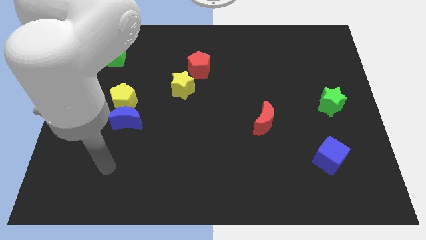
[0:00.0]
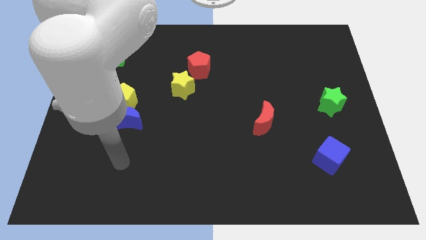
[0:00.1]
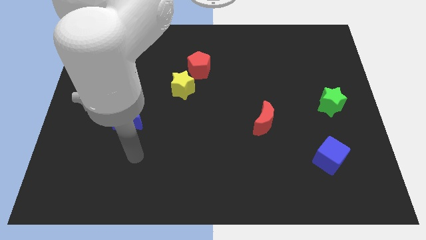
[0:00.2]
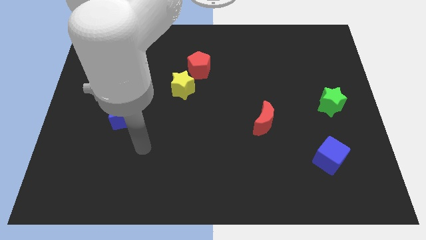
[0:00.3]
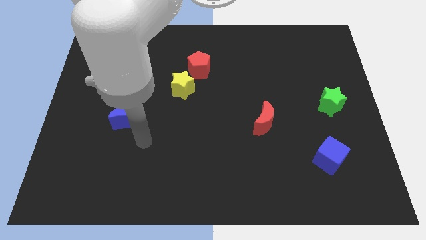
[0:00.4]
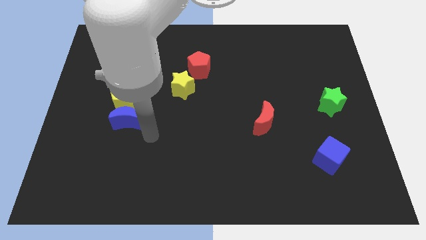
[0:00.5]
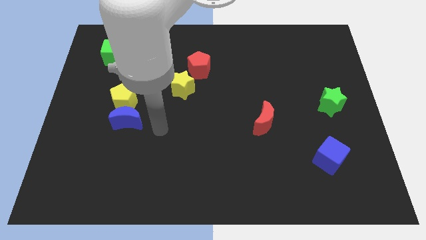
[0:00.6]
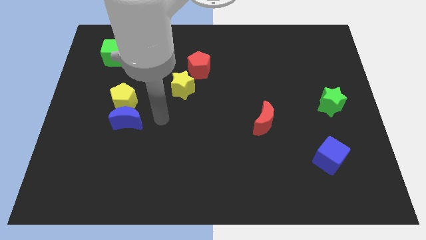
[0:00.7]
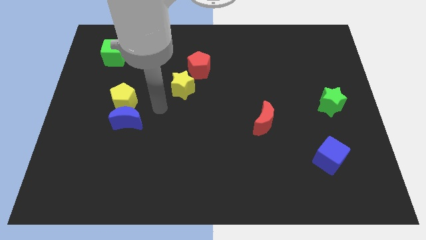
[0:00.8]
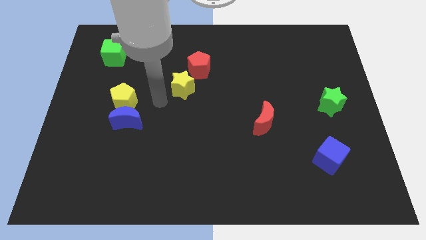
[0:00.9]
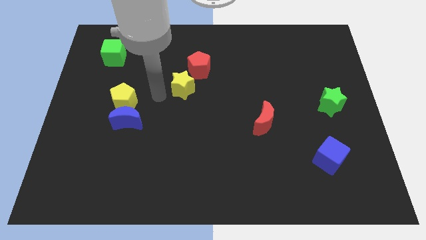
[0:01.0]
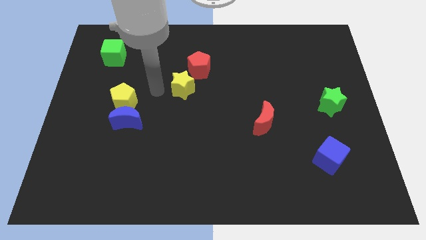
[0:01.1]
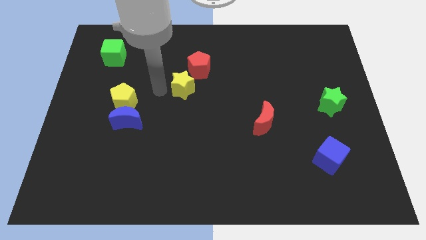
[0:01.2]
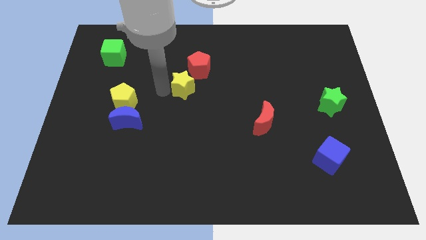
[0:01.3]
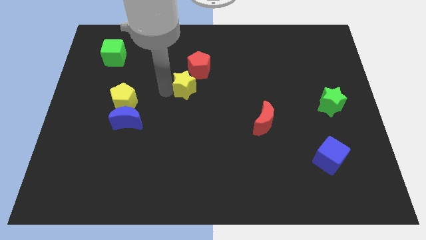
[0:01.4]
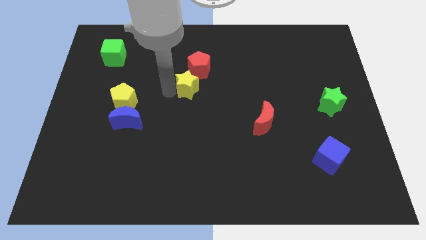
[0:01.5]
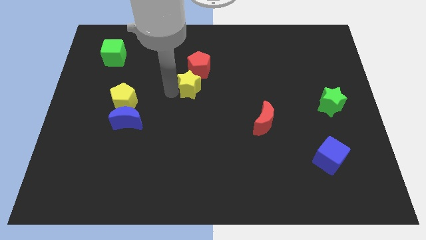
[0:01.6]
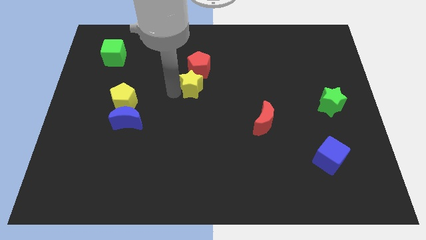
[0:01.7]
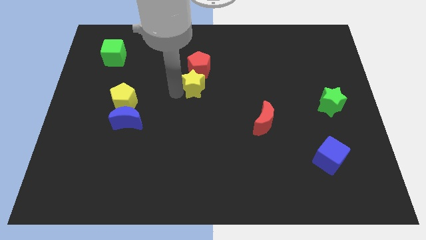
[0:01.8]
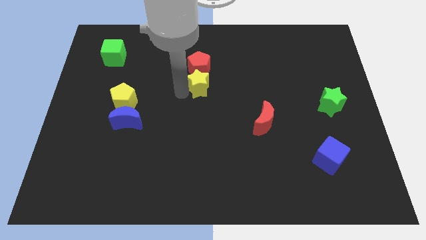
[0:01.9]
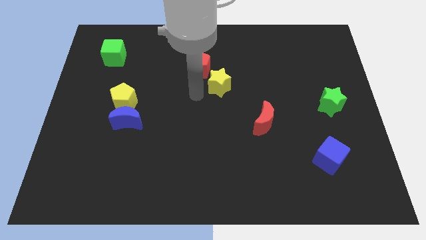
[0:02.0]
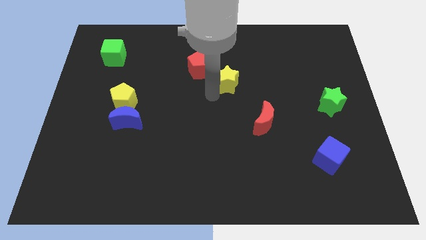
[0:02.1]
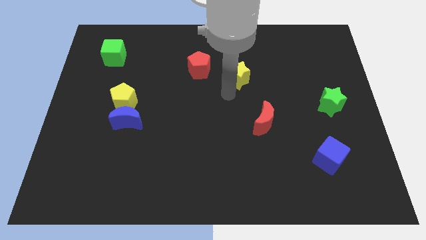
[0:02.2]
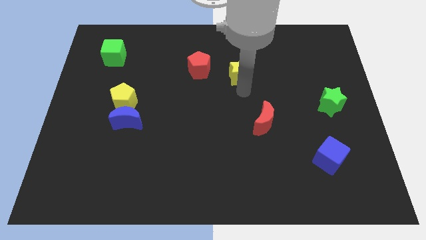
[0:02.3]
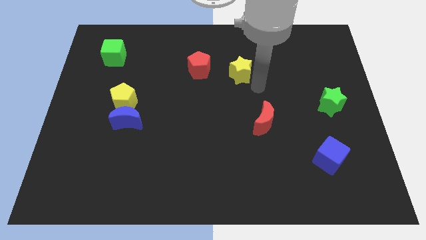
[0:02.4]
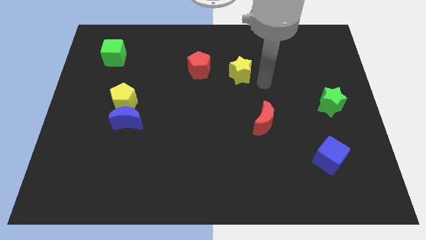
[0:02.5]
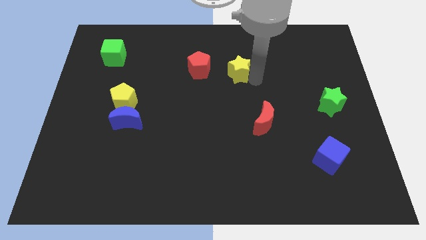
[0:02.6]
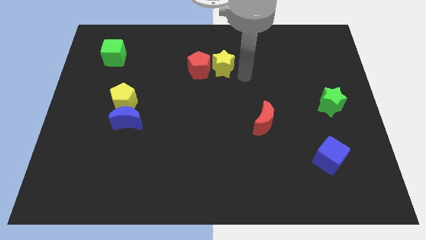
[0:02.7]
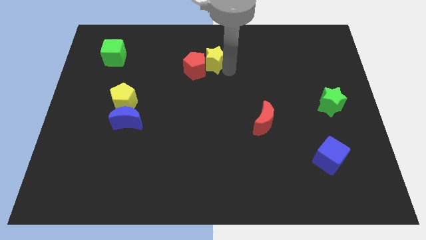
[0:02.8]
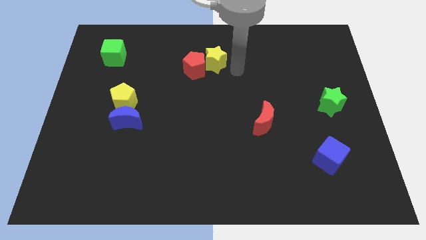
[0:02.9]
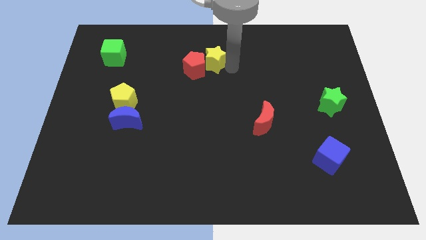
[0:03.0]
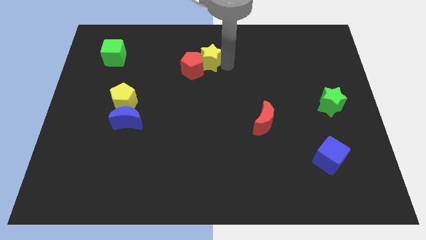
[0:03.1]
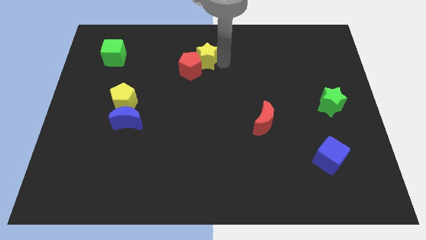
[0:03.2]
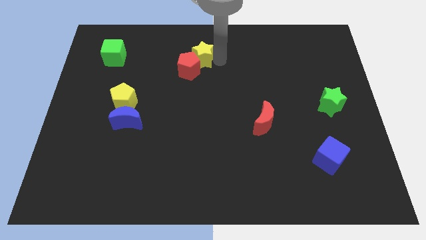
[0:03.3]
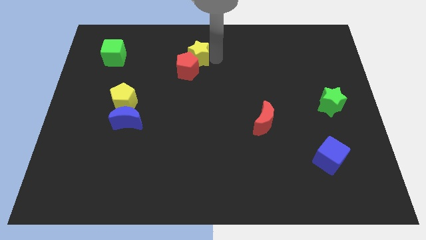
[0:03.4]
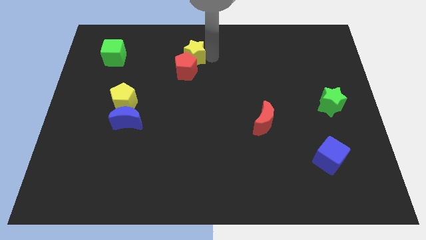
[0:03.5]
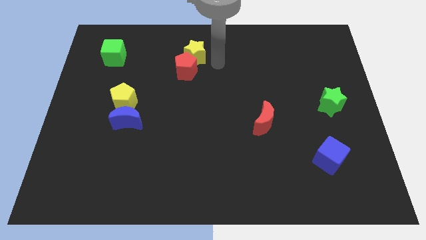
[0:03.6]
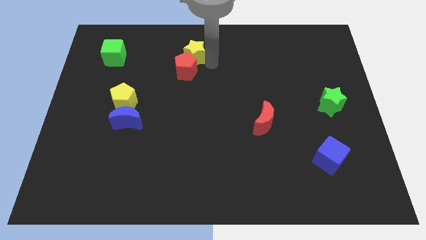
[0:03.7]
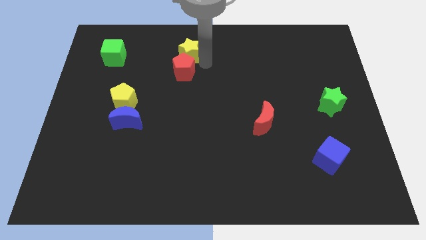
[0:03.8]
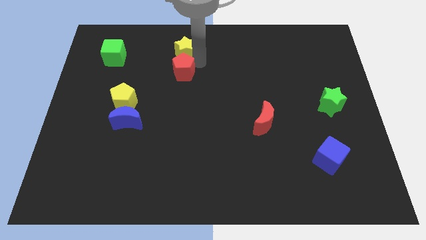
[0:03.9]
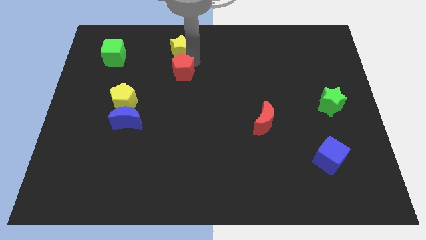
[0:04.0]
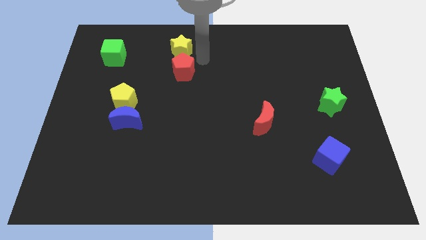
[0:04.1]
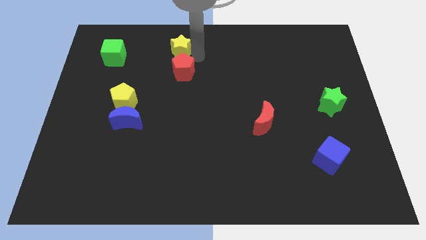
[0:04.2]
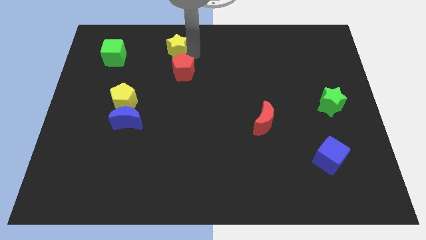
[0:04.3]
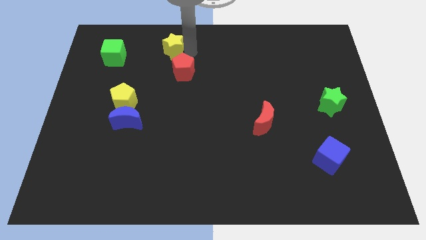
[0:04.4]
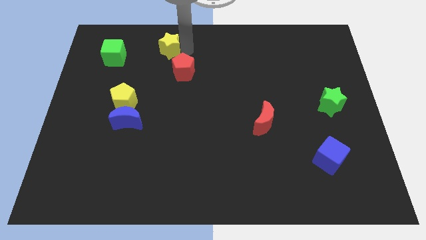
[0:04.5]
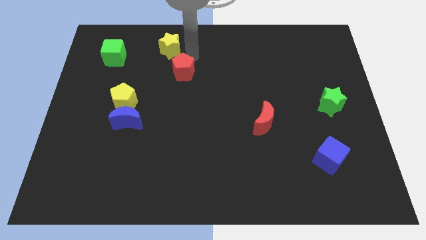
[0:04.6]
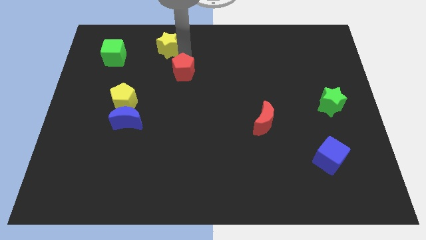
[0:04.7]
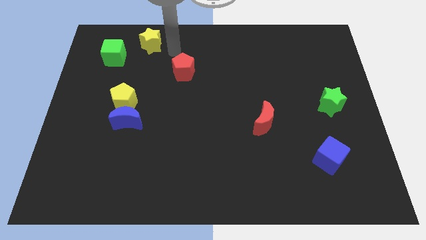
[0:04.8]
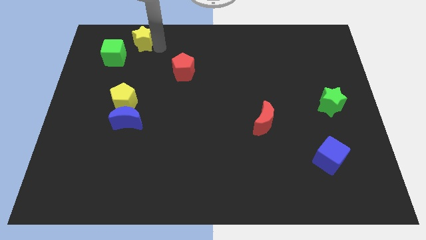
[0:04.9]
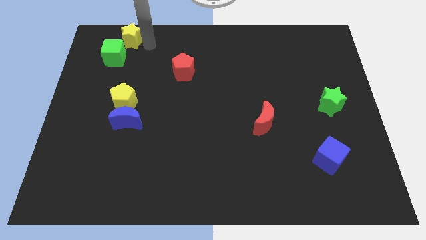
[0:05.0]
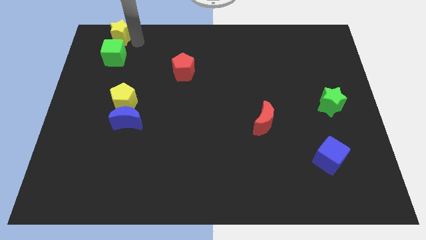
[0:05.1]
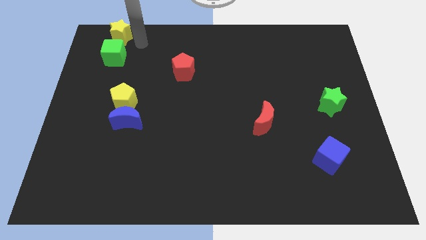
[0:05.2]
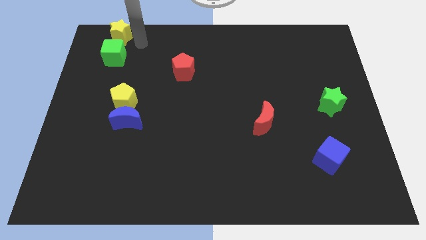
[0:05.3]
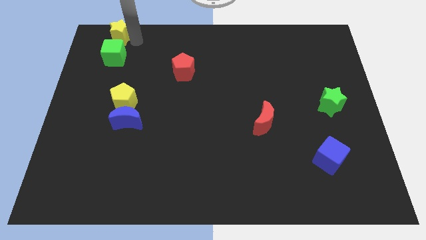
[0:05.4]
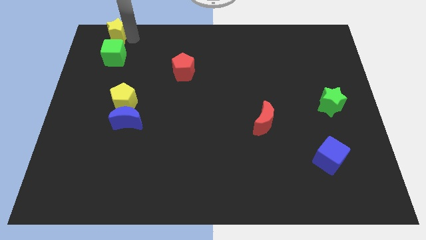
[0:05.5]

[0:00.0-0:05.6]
push the yellow star to the top left of the board
